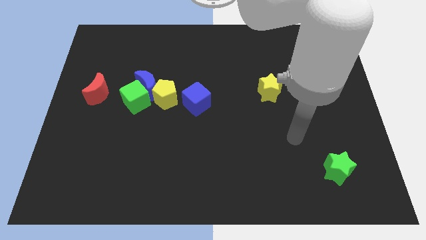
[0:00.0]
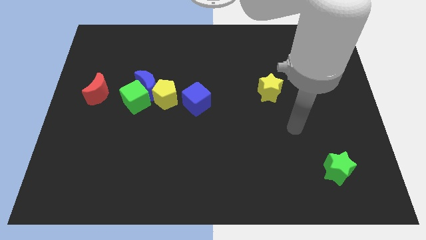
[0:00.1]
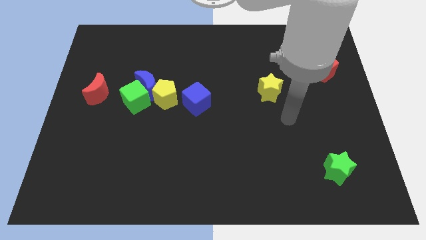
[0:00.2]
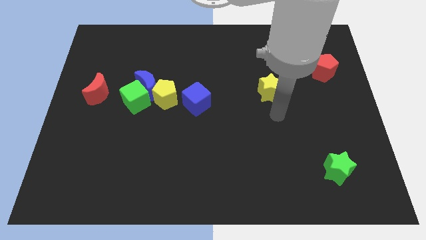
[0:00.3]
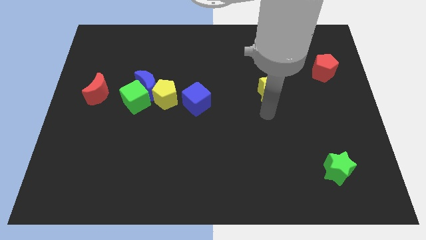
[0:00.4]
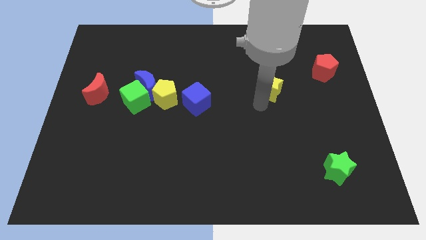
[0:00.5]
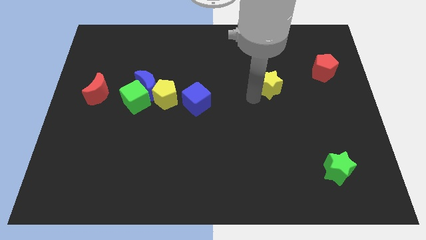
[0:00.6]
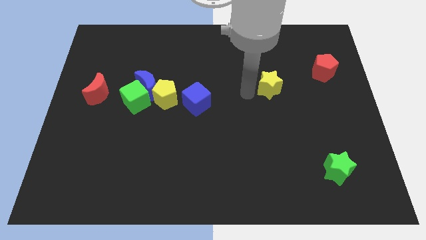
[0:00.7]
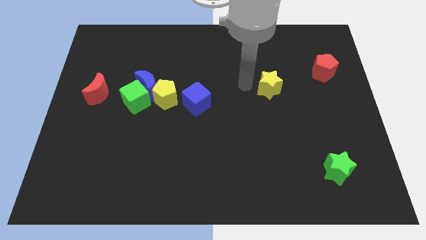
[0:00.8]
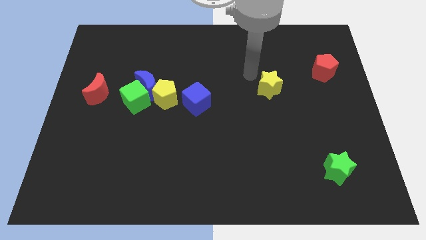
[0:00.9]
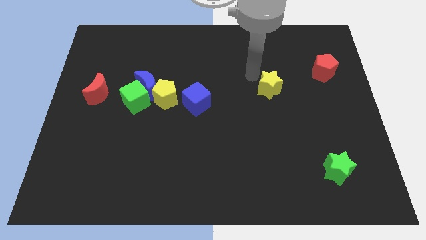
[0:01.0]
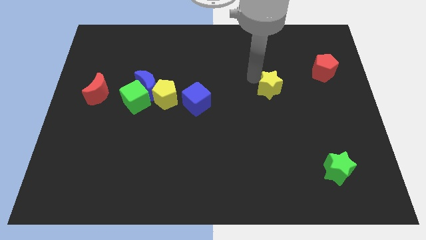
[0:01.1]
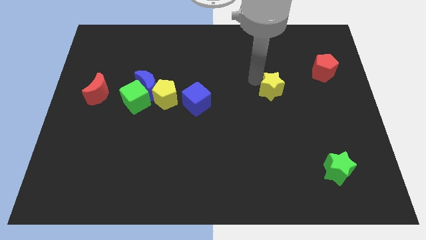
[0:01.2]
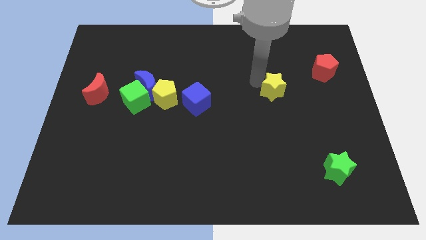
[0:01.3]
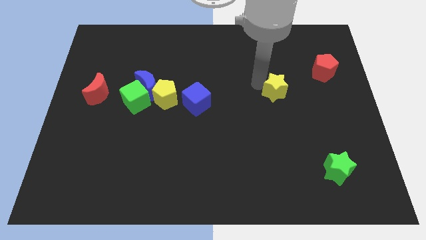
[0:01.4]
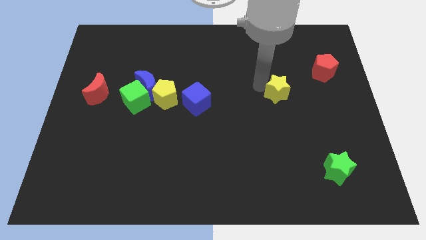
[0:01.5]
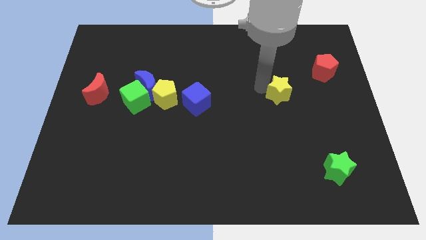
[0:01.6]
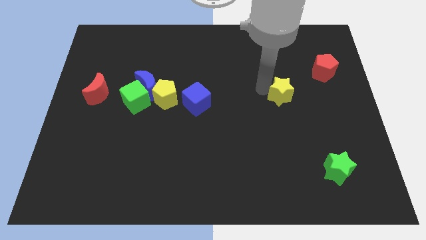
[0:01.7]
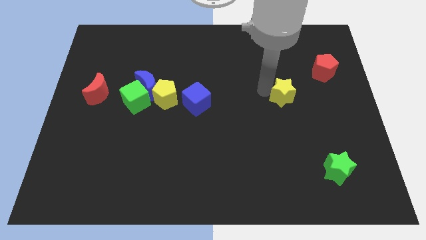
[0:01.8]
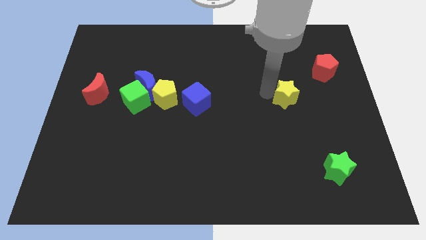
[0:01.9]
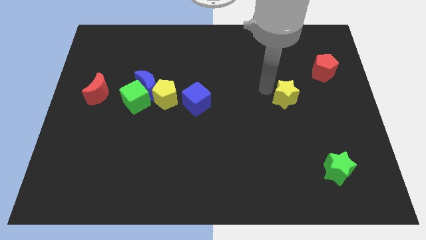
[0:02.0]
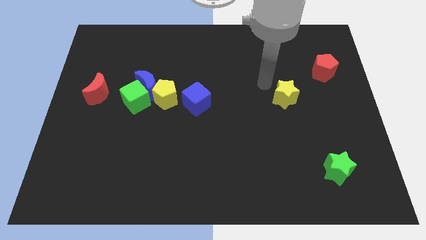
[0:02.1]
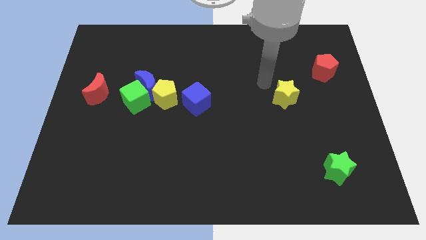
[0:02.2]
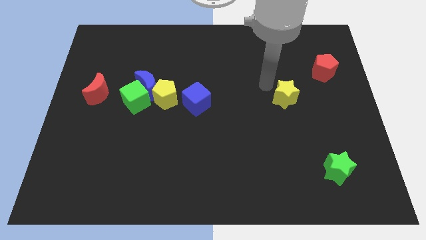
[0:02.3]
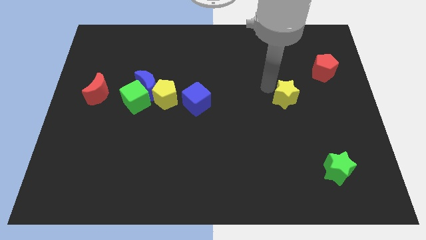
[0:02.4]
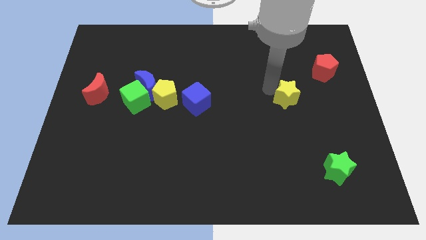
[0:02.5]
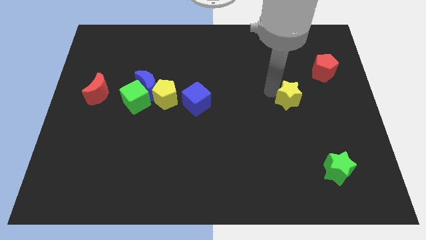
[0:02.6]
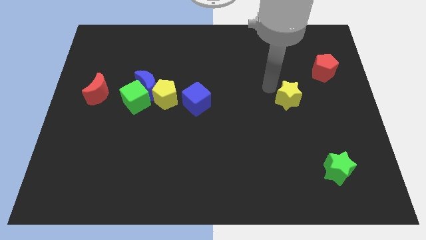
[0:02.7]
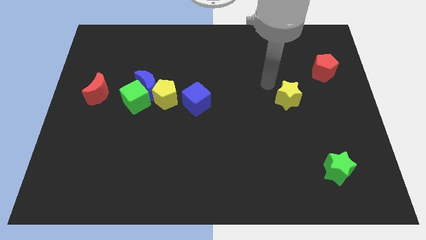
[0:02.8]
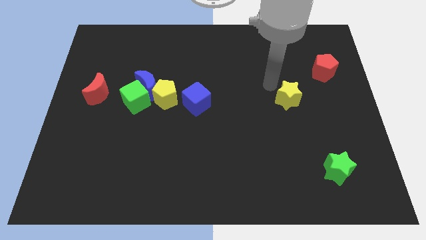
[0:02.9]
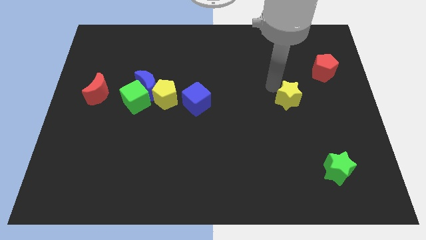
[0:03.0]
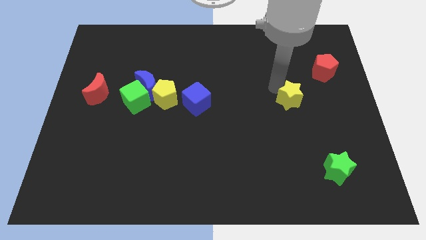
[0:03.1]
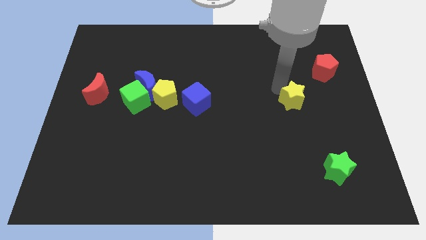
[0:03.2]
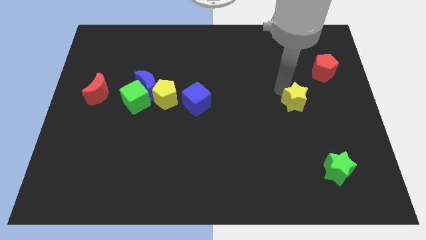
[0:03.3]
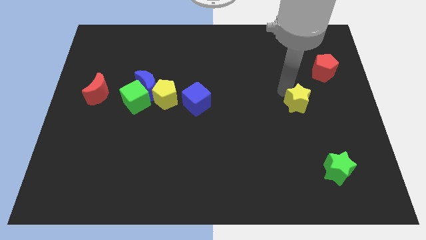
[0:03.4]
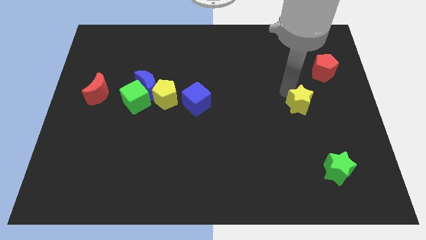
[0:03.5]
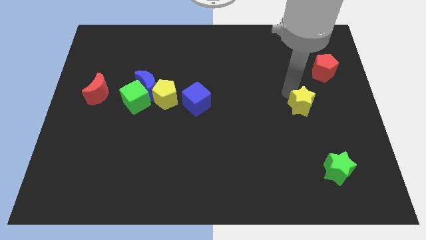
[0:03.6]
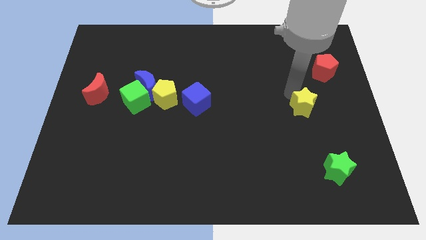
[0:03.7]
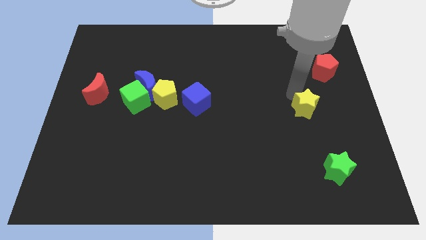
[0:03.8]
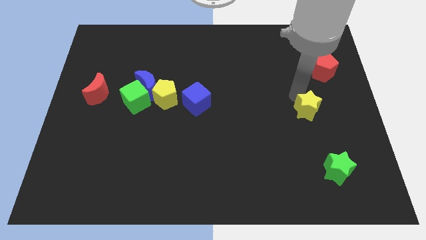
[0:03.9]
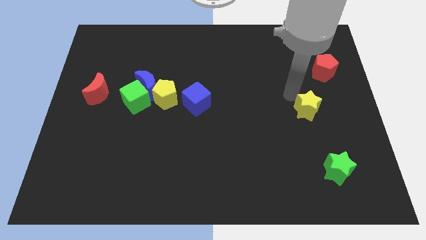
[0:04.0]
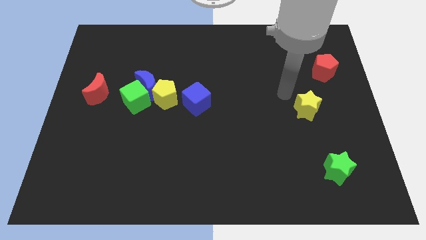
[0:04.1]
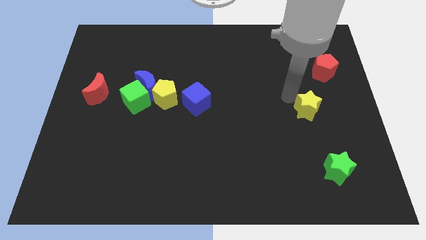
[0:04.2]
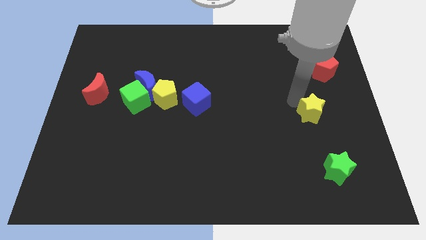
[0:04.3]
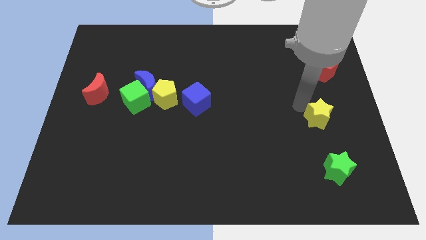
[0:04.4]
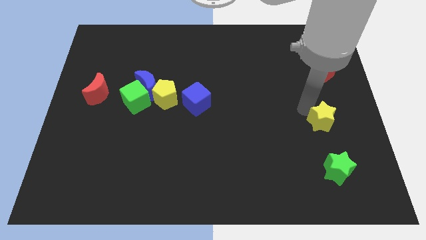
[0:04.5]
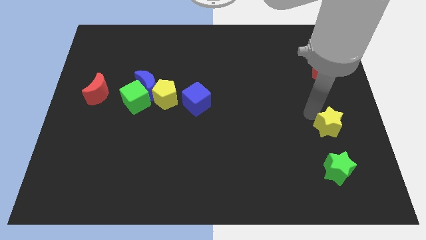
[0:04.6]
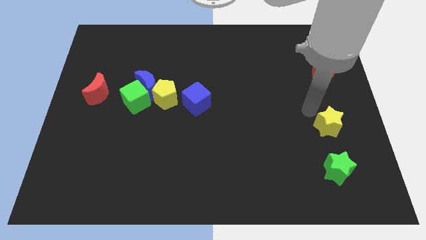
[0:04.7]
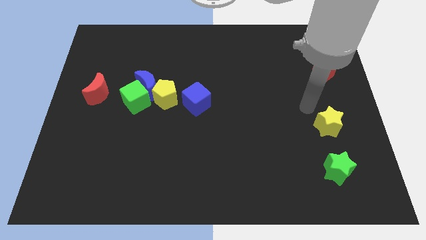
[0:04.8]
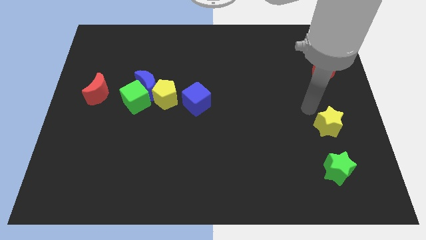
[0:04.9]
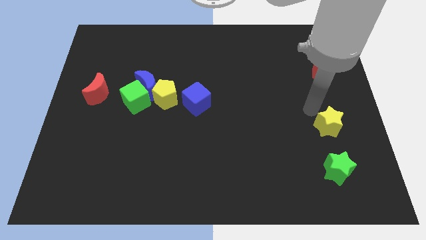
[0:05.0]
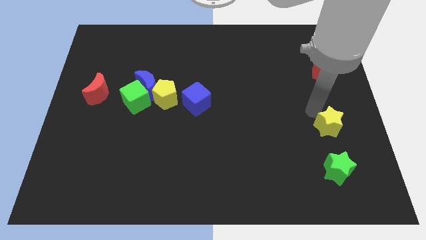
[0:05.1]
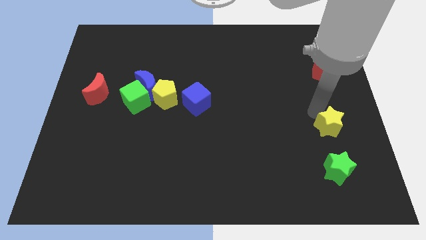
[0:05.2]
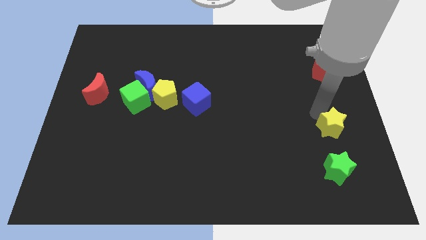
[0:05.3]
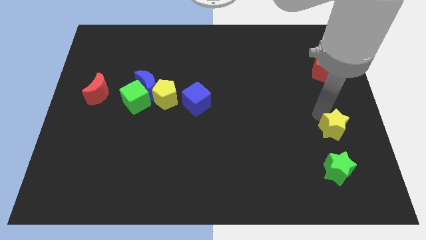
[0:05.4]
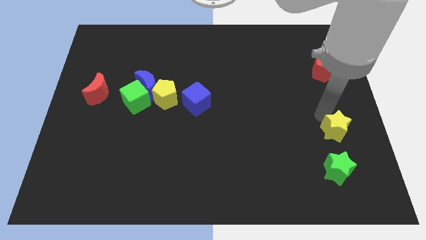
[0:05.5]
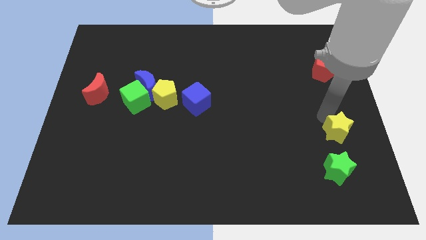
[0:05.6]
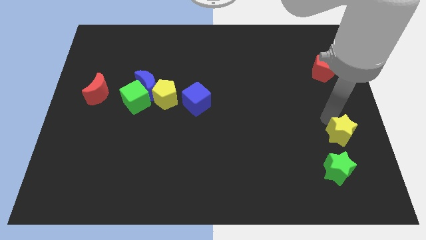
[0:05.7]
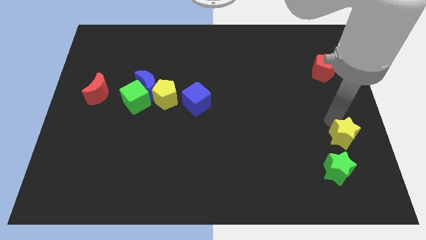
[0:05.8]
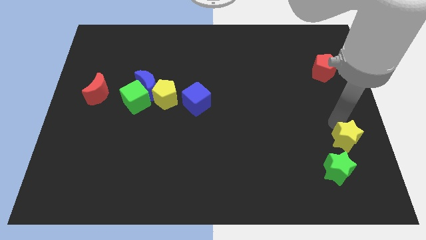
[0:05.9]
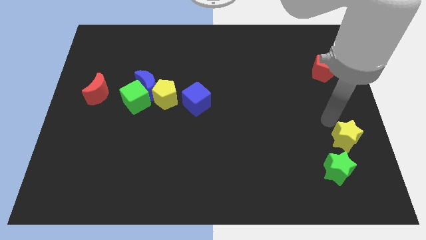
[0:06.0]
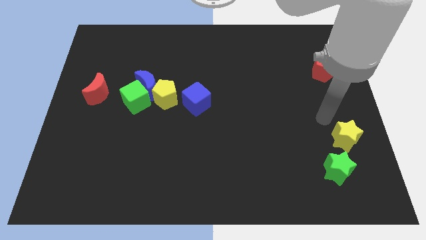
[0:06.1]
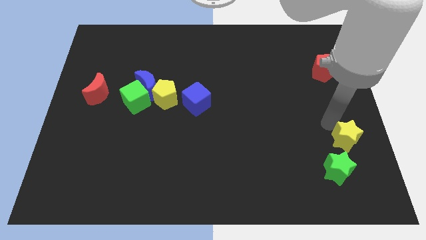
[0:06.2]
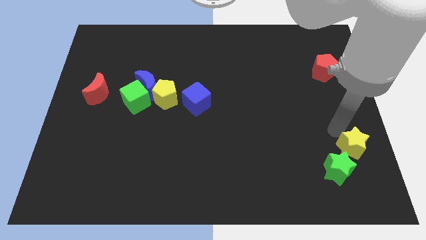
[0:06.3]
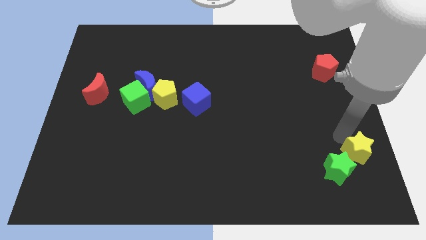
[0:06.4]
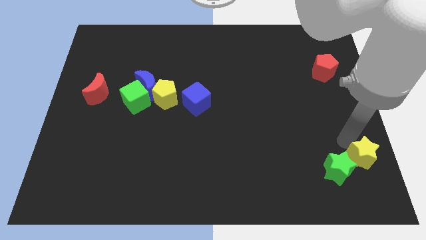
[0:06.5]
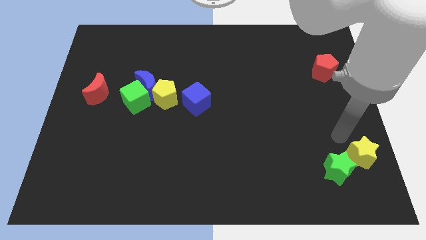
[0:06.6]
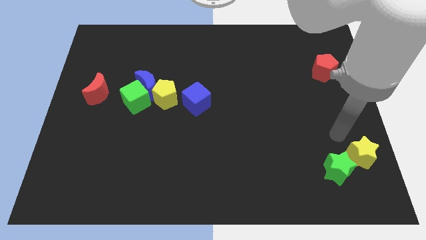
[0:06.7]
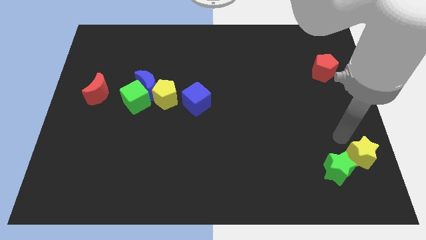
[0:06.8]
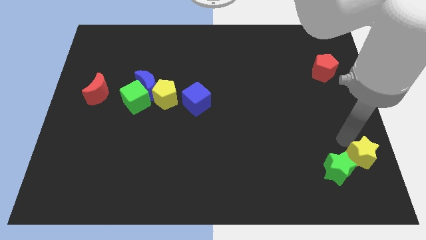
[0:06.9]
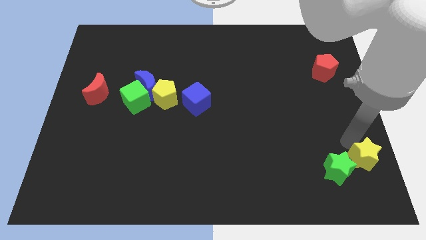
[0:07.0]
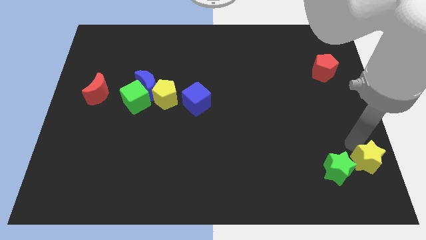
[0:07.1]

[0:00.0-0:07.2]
push the yellow star to the bottom right
